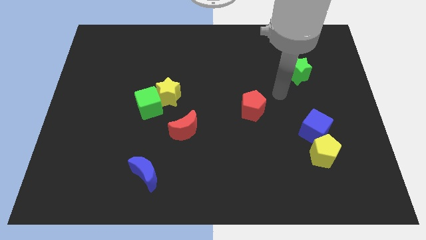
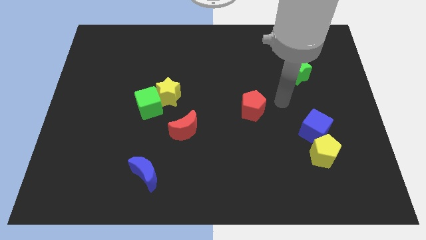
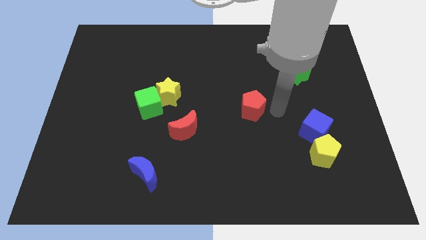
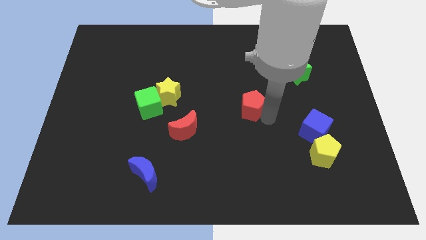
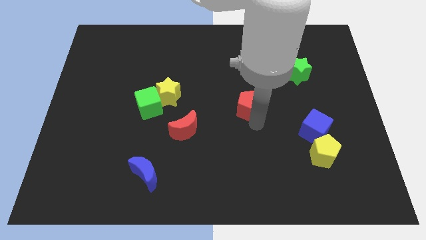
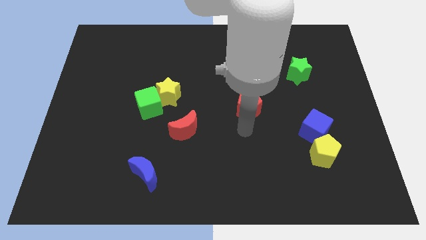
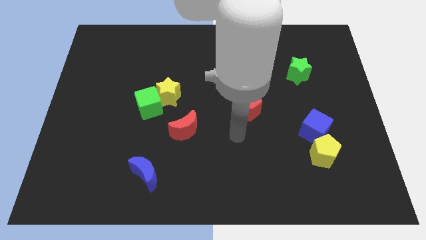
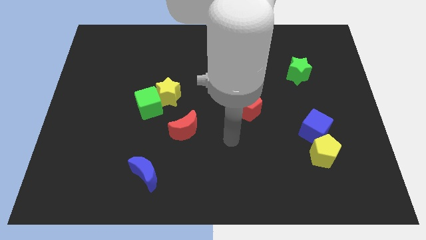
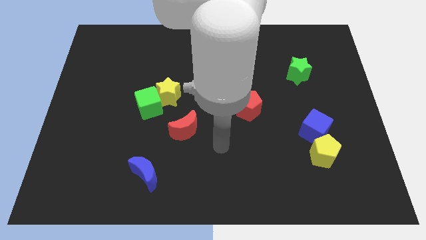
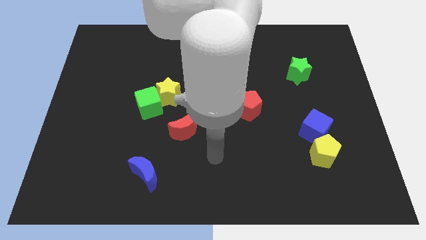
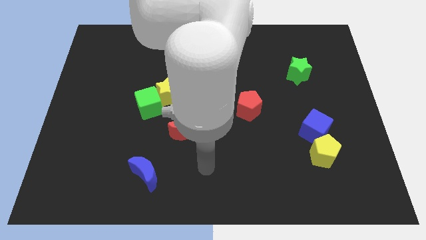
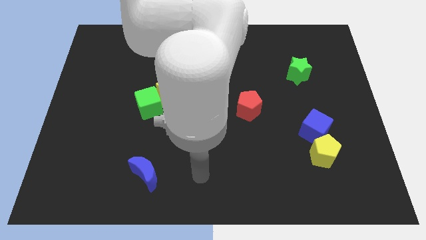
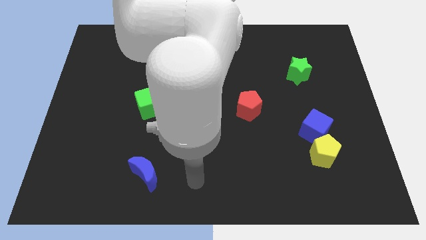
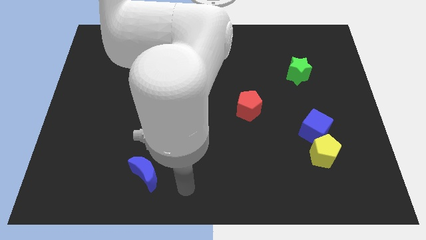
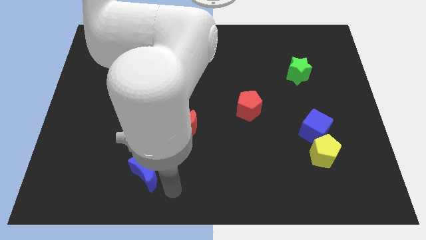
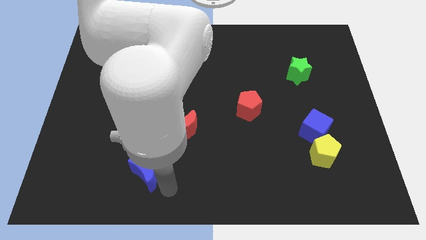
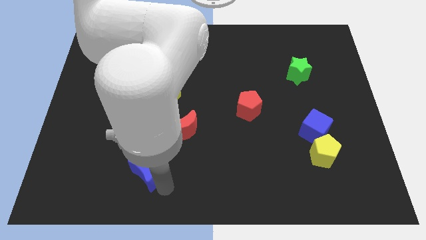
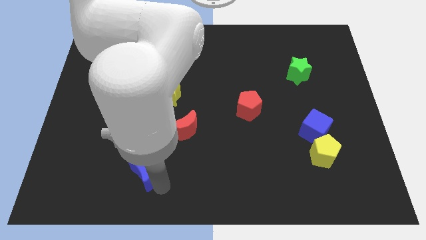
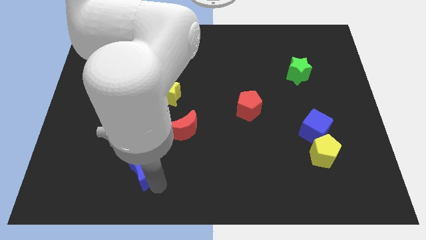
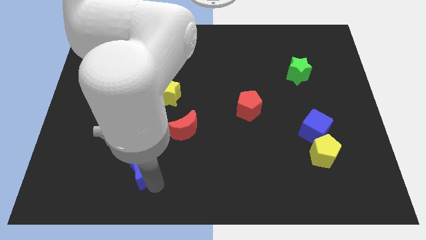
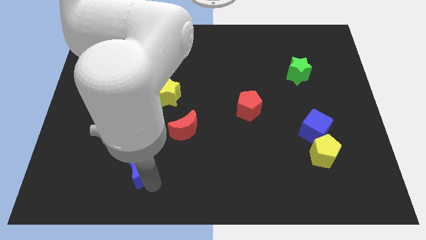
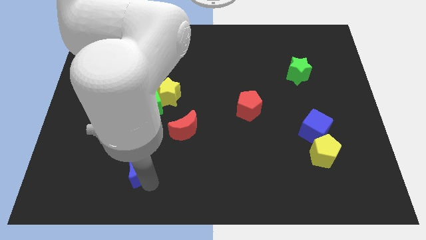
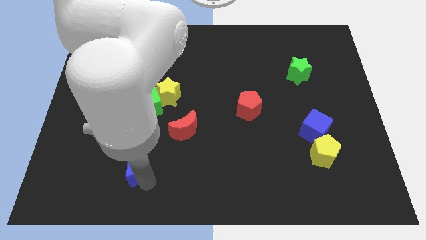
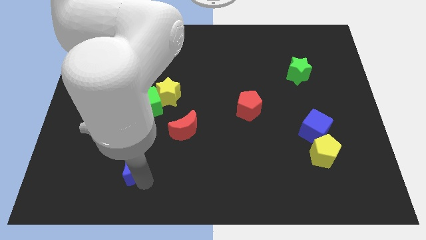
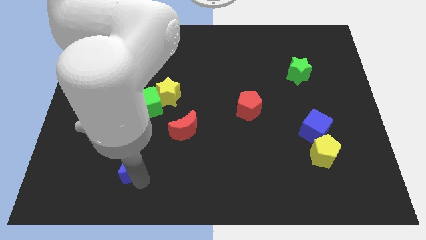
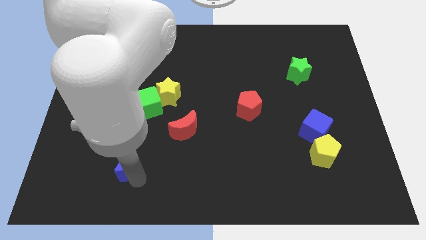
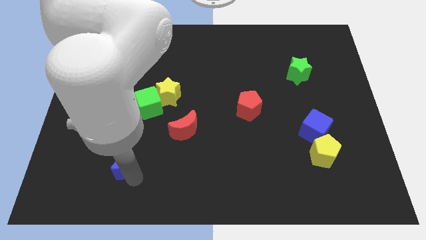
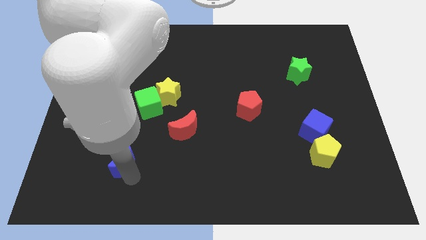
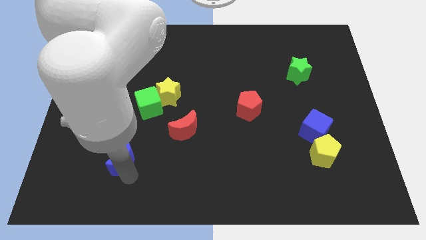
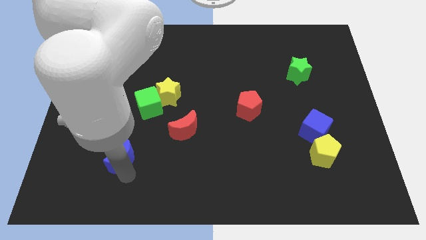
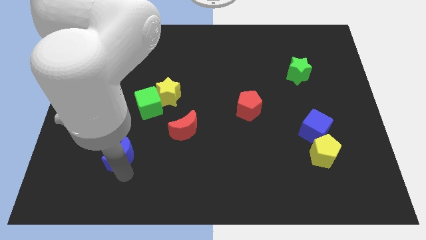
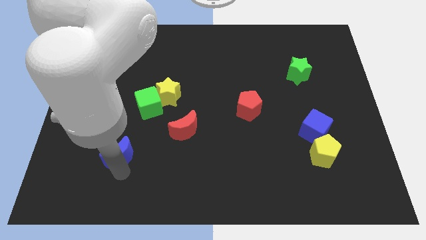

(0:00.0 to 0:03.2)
slightly move the blue moon diagonally upwards and to the left

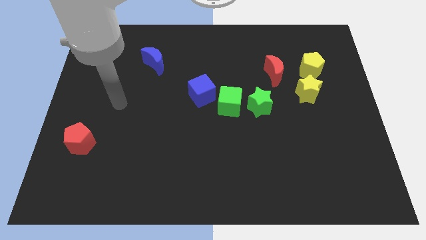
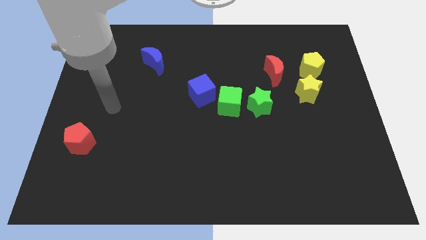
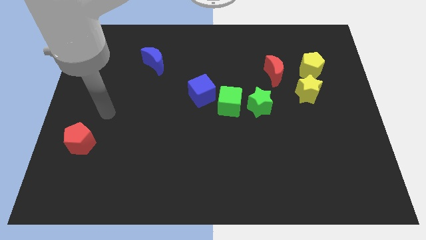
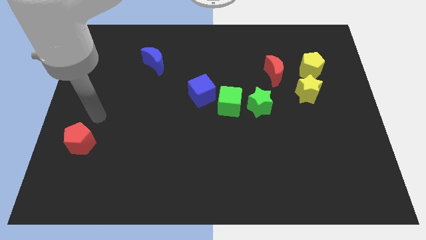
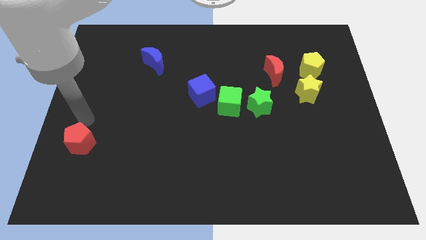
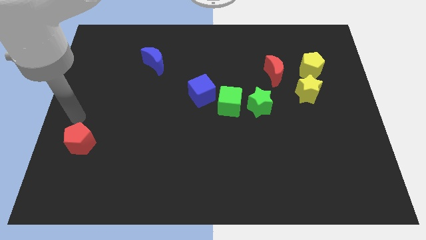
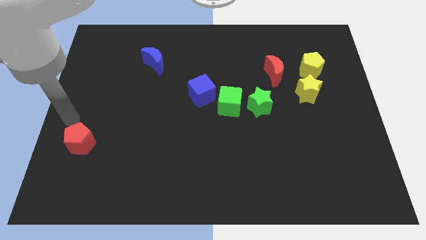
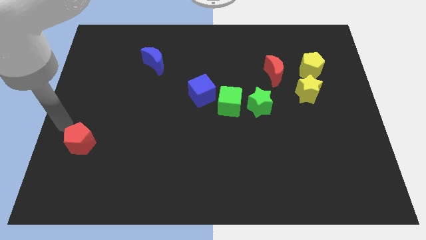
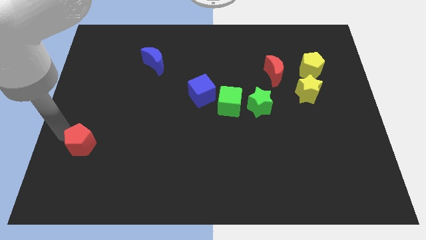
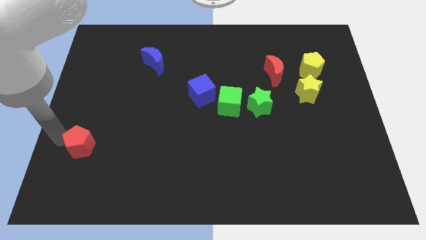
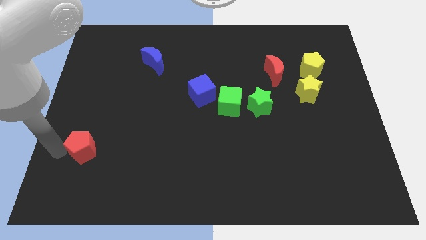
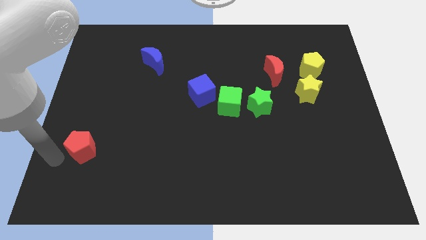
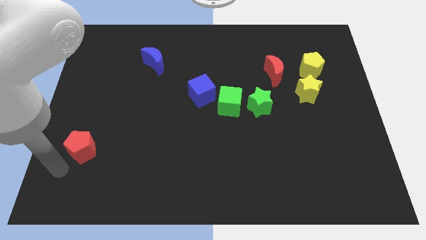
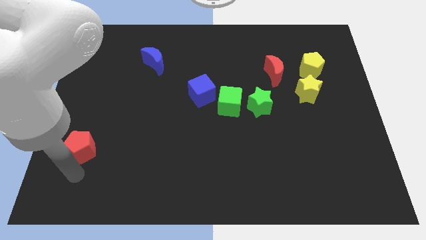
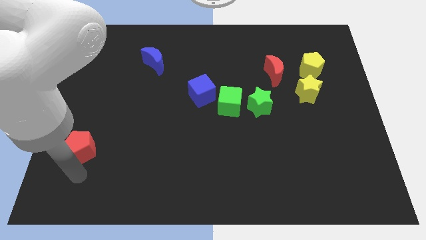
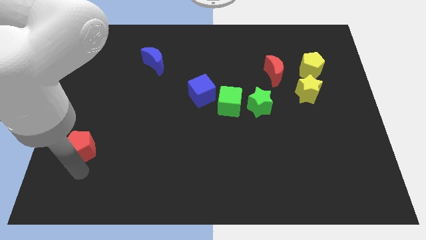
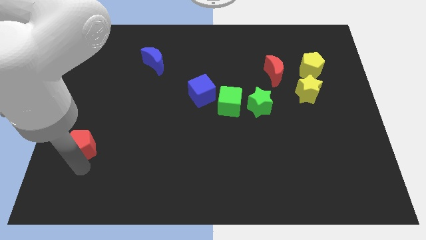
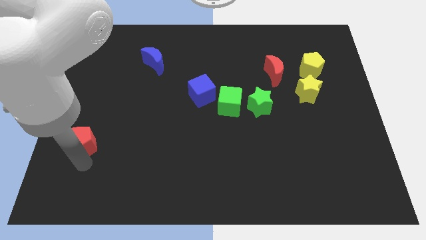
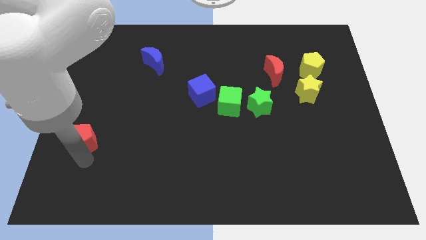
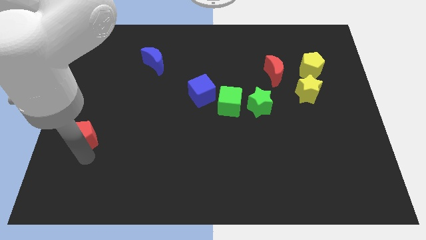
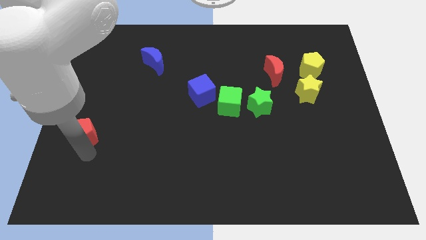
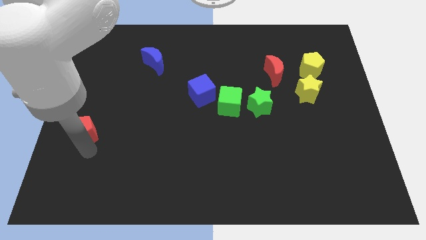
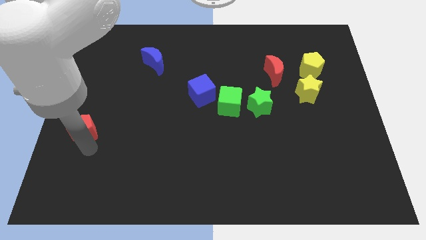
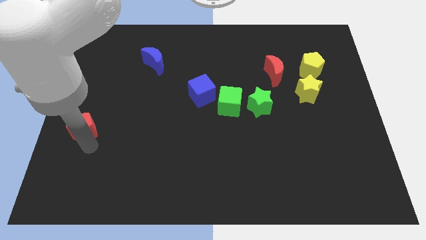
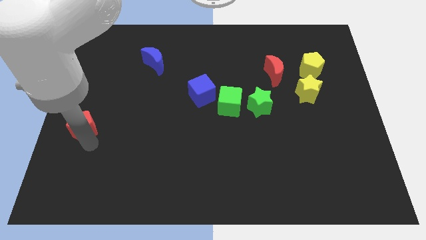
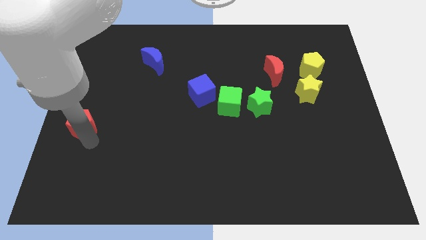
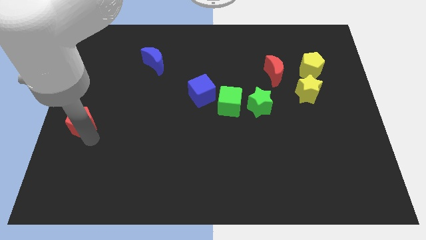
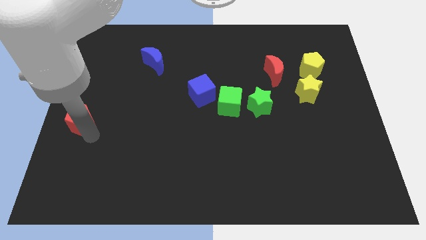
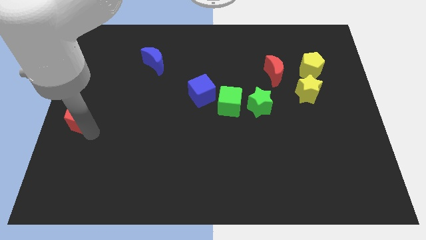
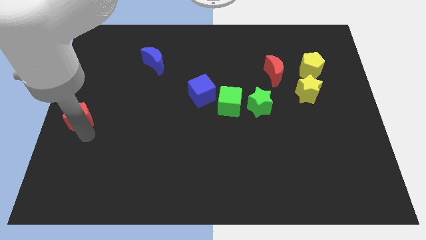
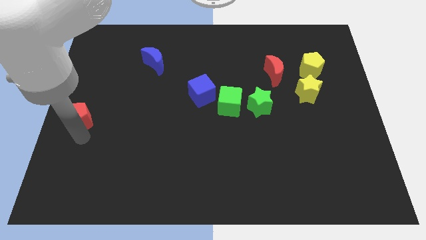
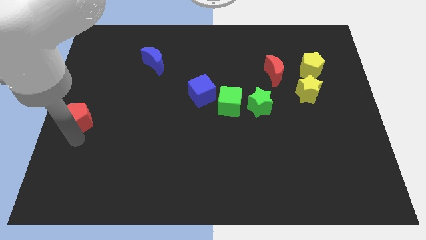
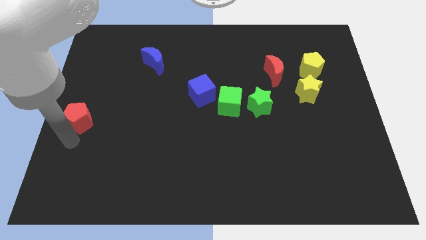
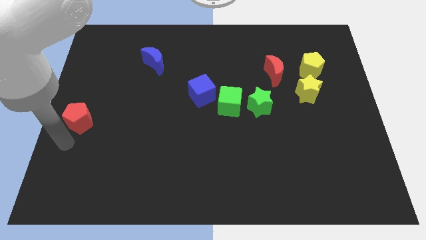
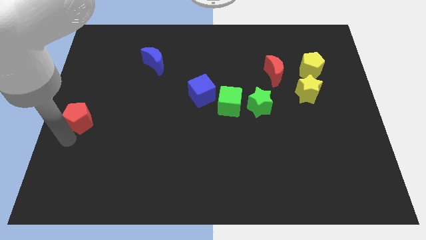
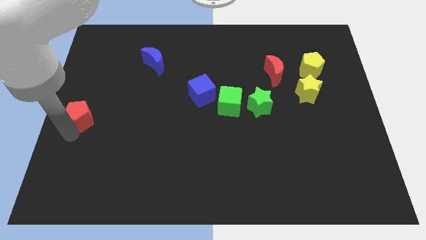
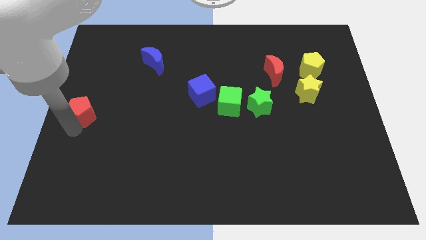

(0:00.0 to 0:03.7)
move the red pentagon up a little

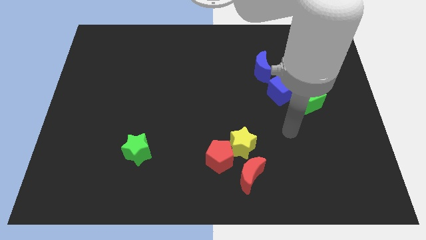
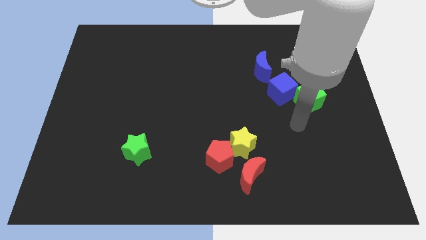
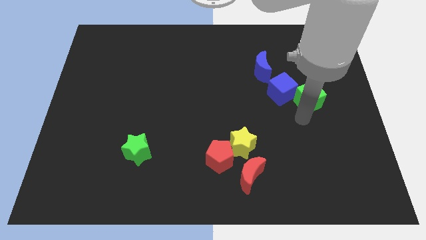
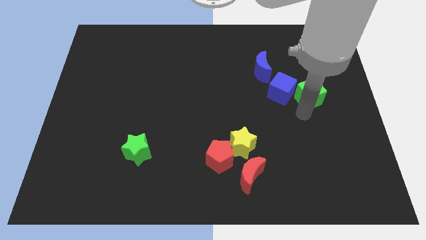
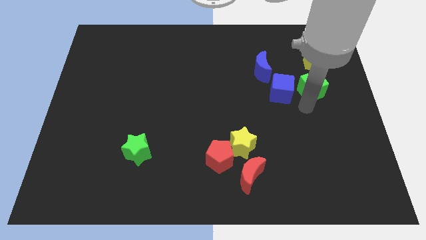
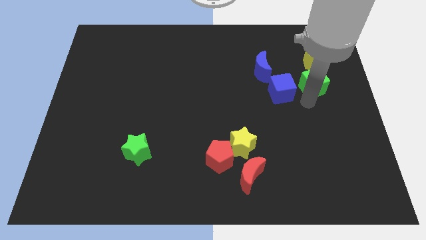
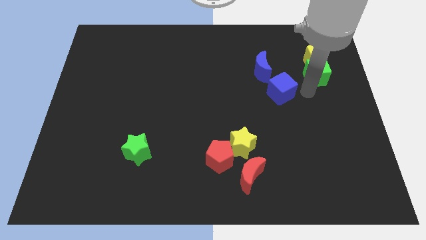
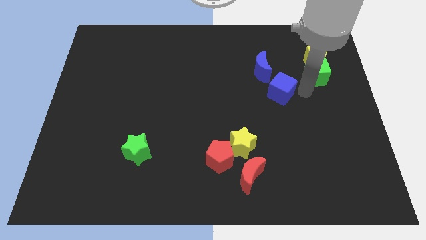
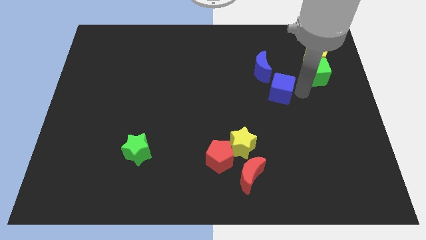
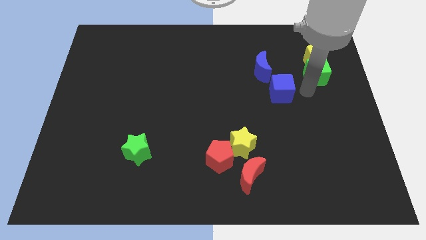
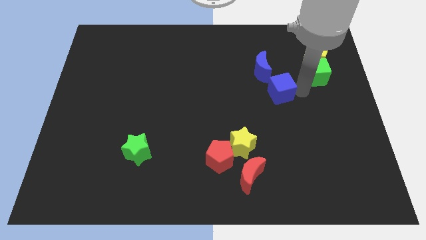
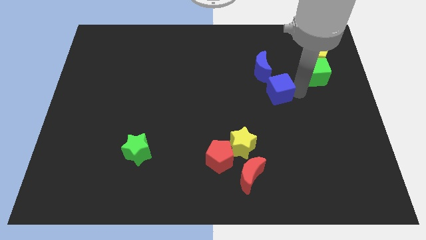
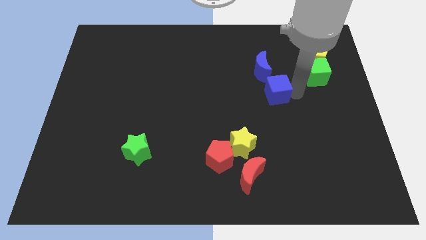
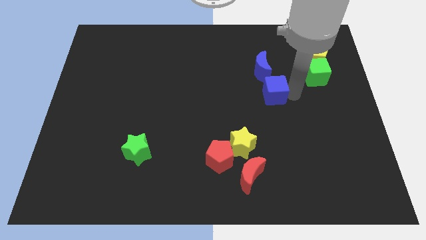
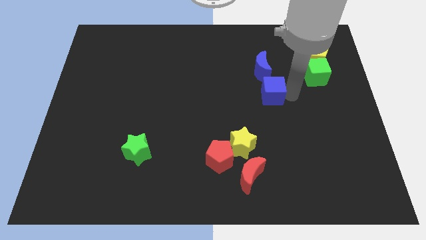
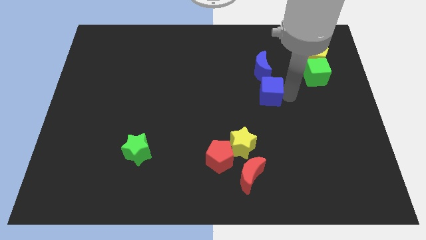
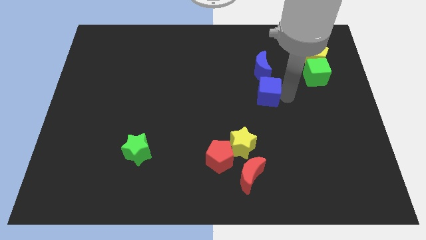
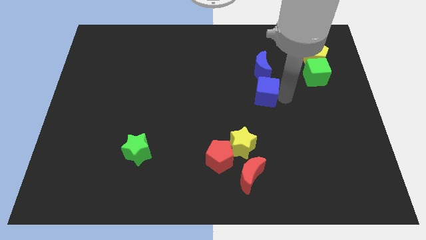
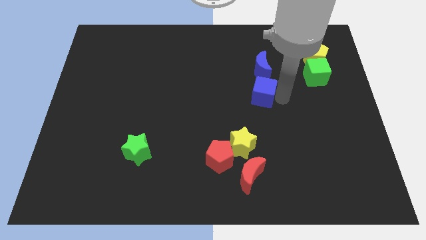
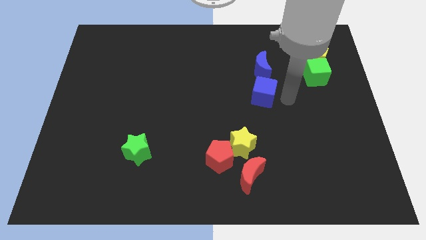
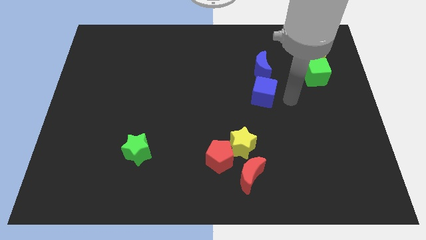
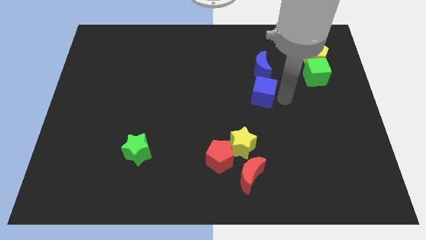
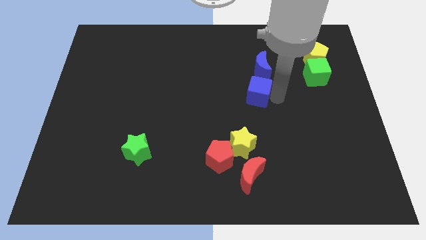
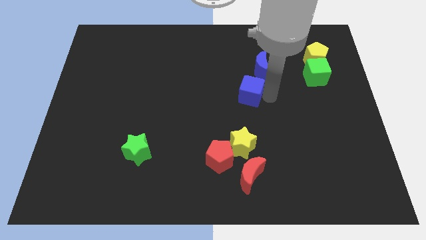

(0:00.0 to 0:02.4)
slide the blue cube somewhat left
